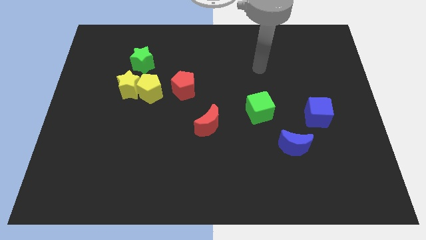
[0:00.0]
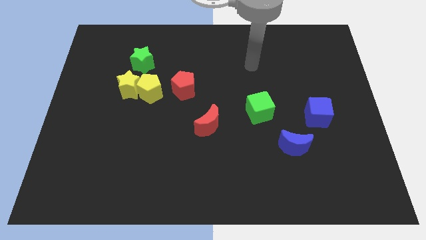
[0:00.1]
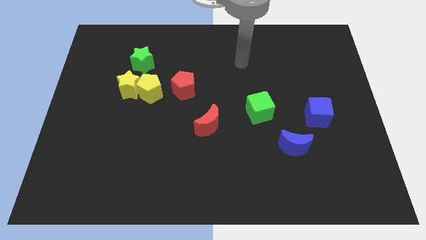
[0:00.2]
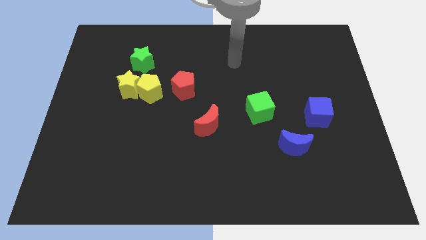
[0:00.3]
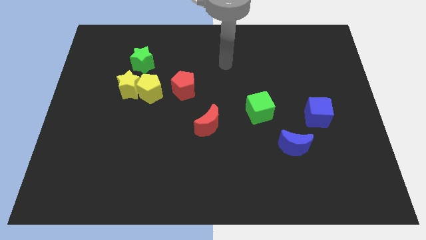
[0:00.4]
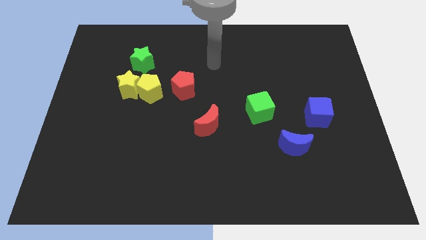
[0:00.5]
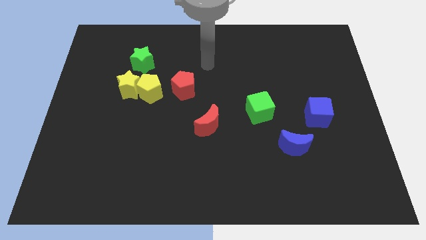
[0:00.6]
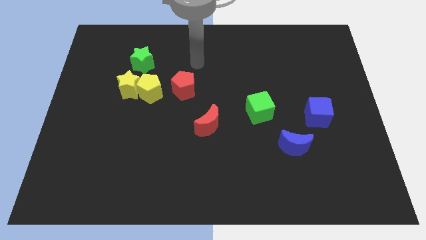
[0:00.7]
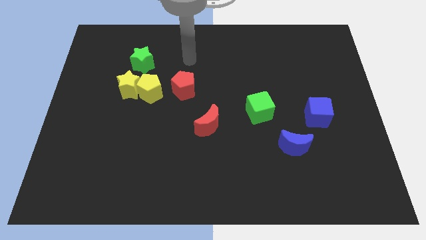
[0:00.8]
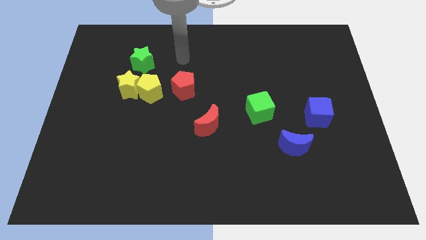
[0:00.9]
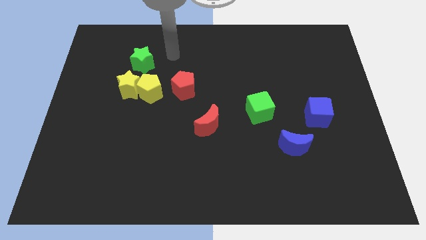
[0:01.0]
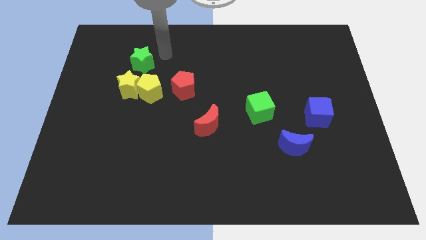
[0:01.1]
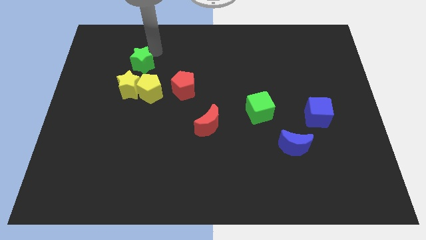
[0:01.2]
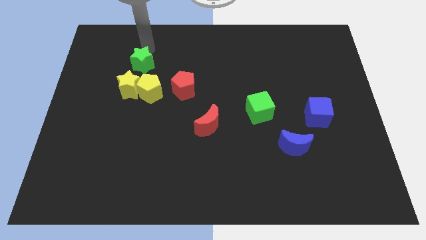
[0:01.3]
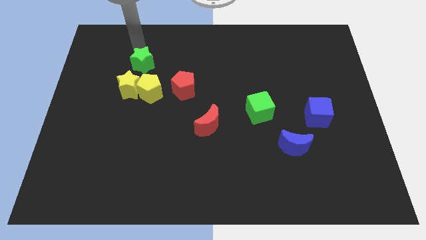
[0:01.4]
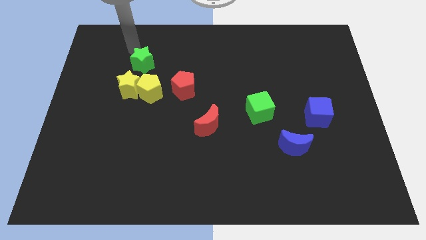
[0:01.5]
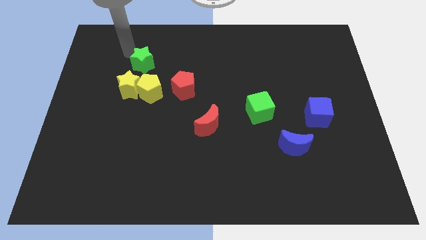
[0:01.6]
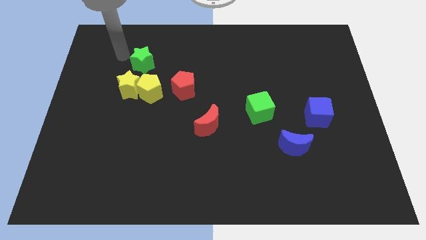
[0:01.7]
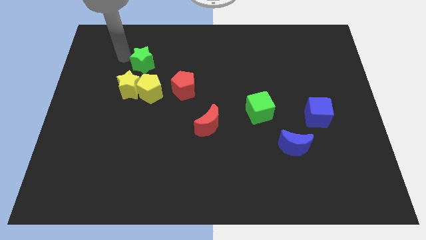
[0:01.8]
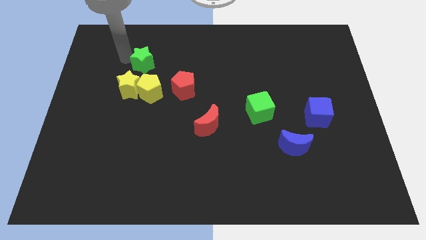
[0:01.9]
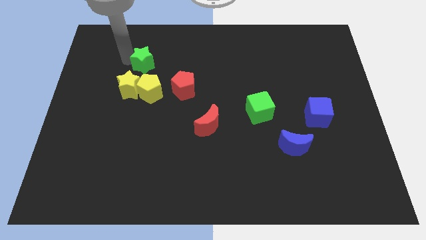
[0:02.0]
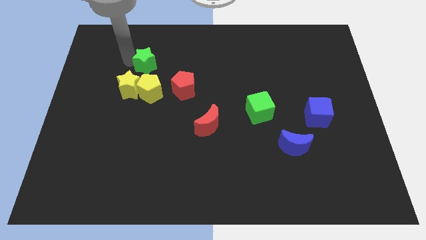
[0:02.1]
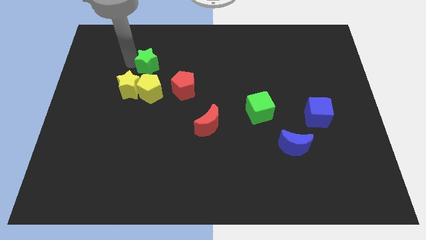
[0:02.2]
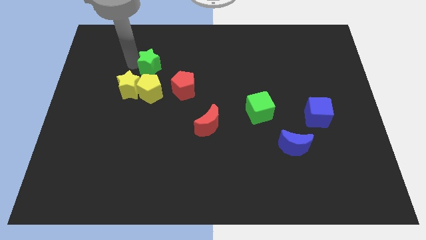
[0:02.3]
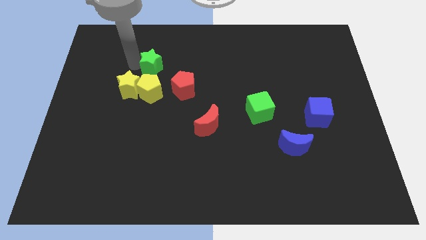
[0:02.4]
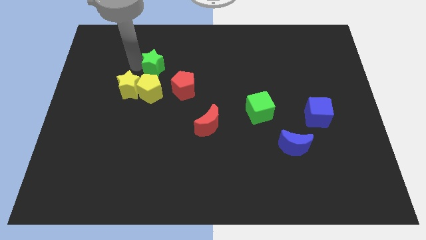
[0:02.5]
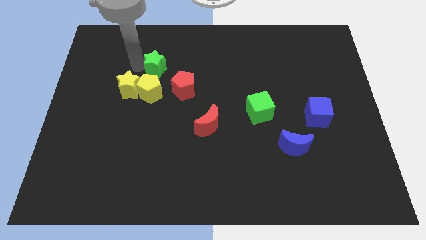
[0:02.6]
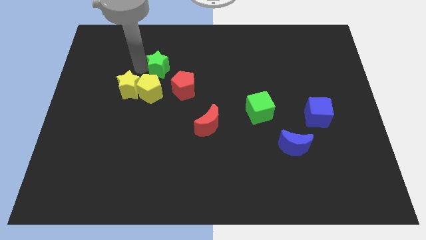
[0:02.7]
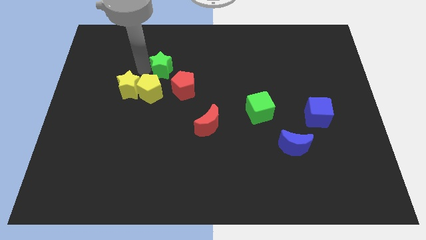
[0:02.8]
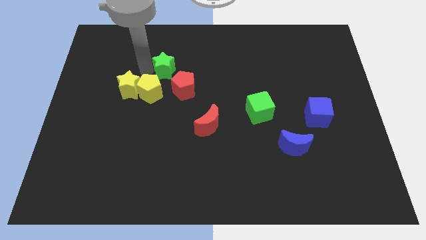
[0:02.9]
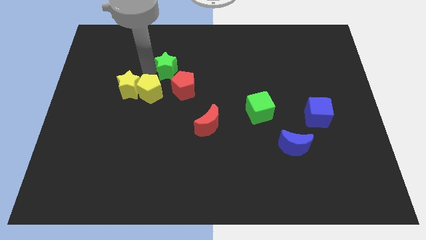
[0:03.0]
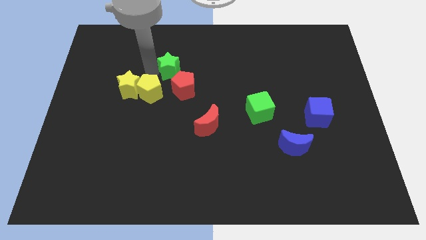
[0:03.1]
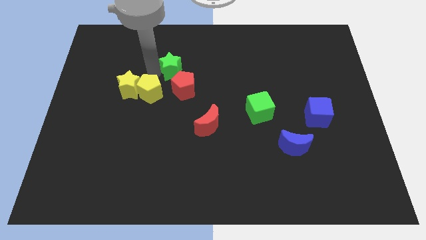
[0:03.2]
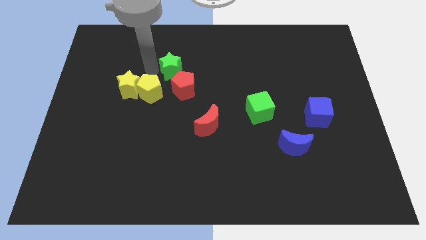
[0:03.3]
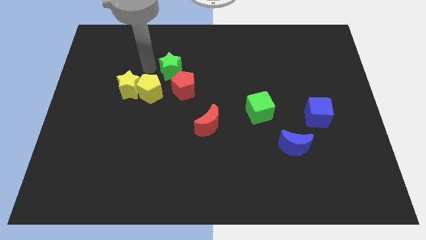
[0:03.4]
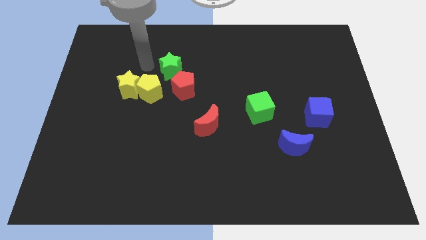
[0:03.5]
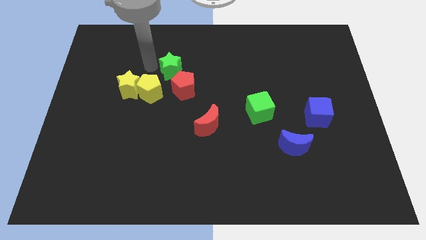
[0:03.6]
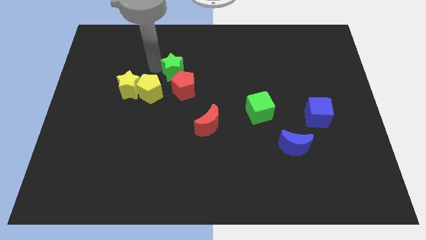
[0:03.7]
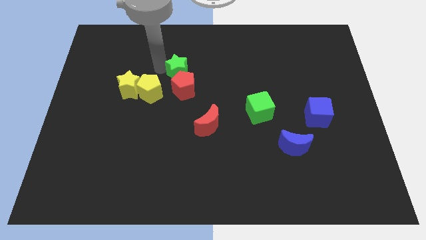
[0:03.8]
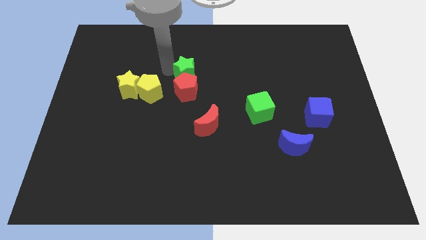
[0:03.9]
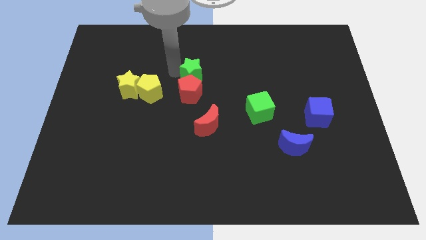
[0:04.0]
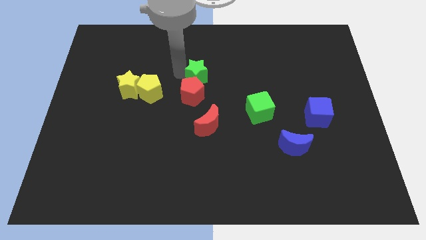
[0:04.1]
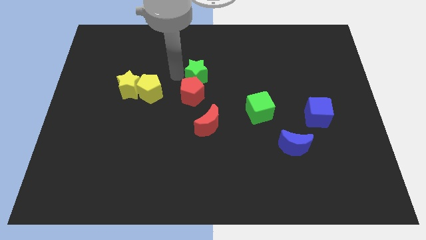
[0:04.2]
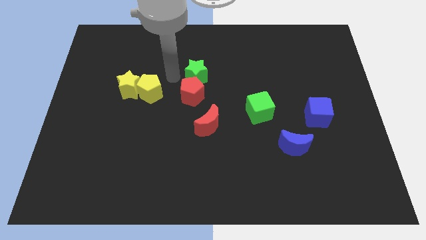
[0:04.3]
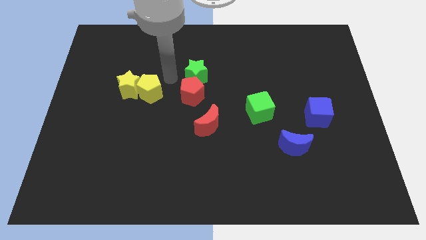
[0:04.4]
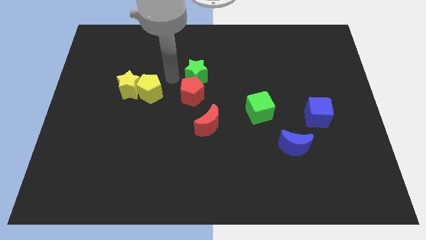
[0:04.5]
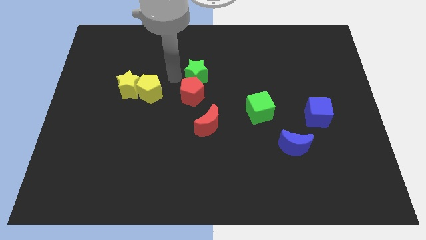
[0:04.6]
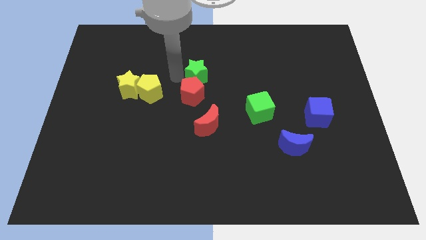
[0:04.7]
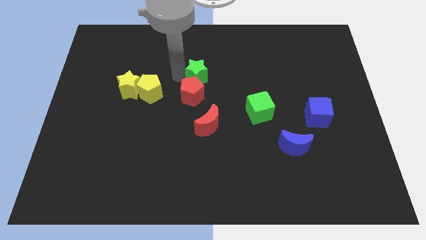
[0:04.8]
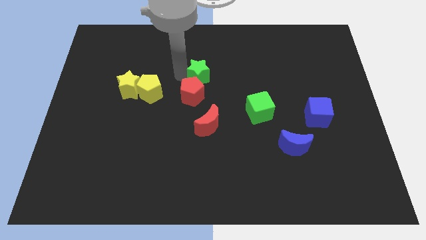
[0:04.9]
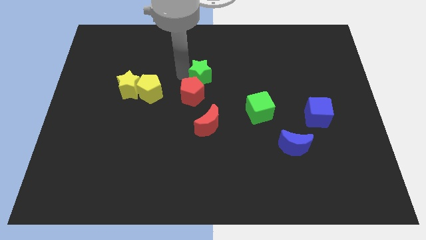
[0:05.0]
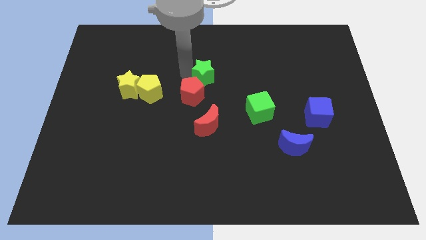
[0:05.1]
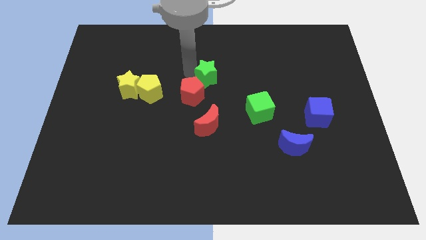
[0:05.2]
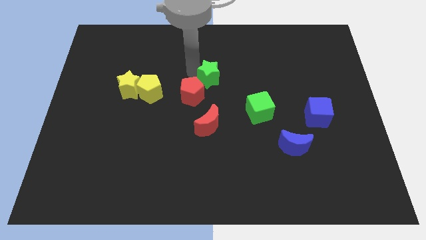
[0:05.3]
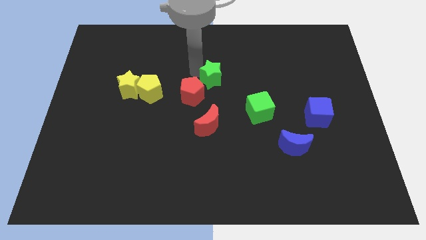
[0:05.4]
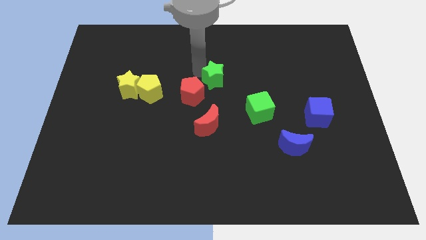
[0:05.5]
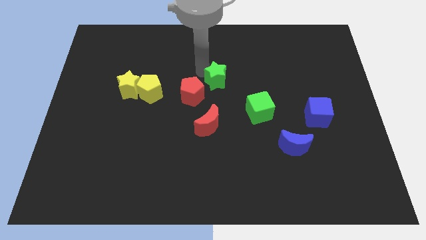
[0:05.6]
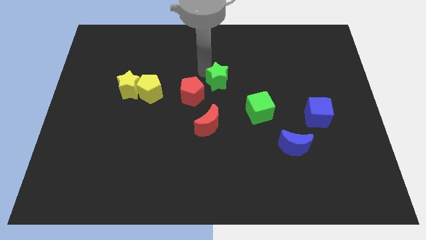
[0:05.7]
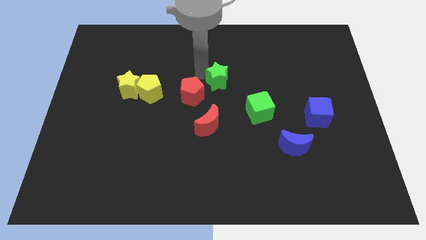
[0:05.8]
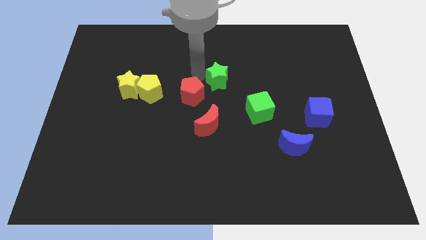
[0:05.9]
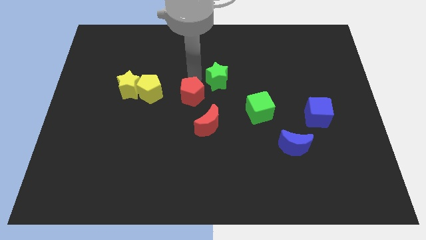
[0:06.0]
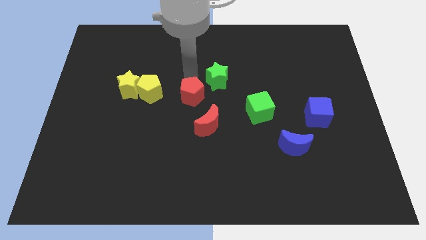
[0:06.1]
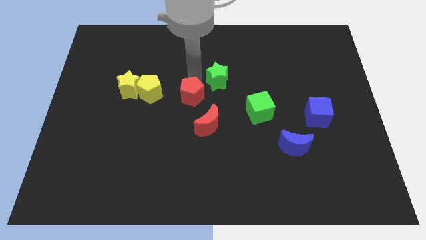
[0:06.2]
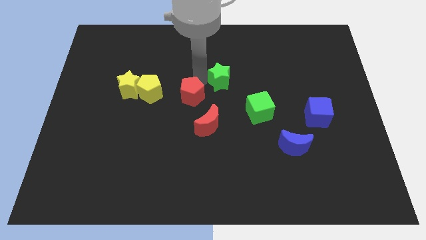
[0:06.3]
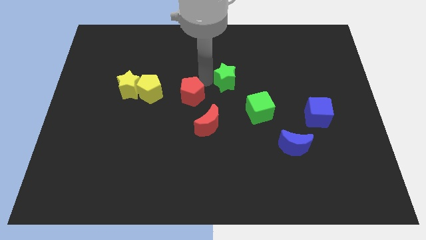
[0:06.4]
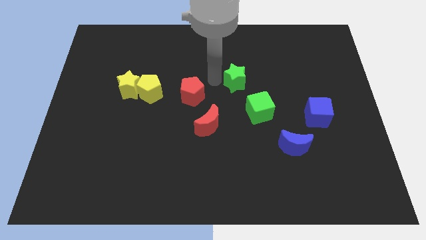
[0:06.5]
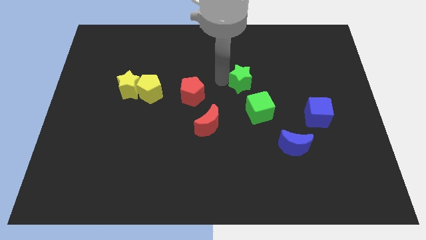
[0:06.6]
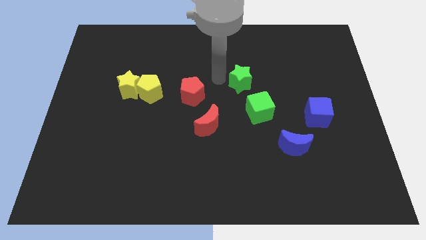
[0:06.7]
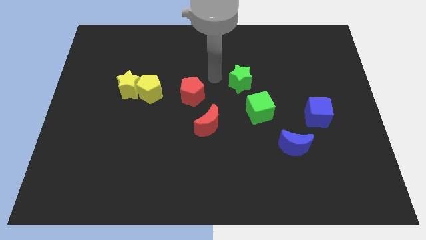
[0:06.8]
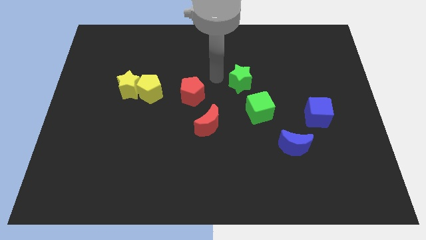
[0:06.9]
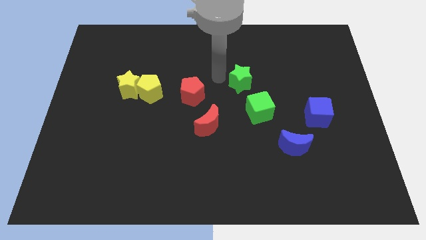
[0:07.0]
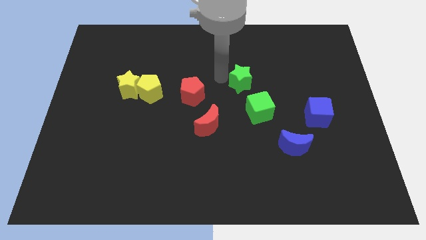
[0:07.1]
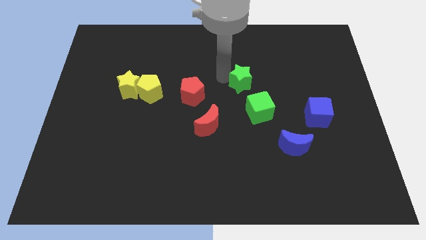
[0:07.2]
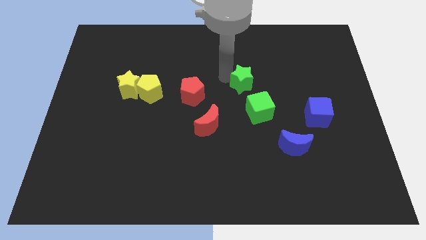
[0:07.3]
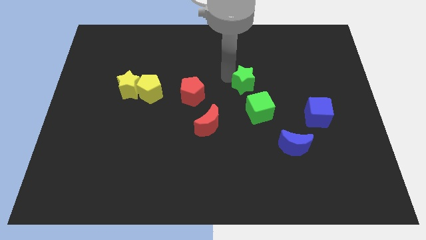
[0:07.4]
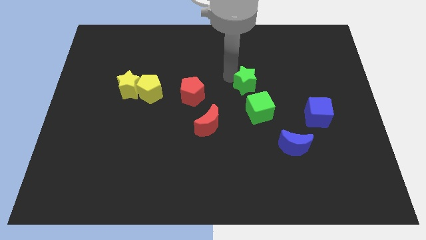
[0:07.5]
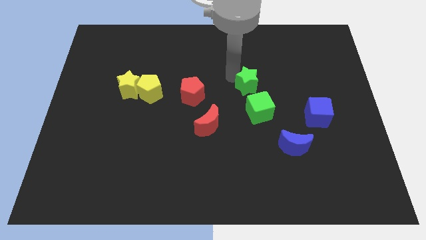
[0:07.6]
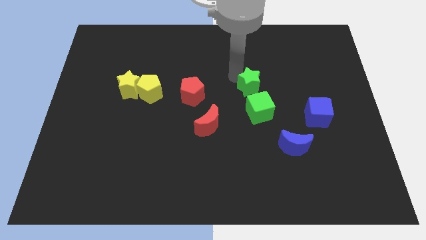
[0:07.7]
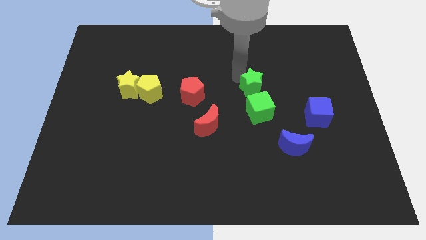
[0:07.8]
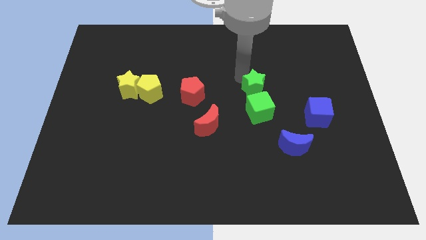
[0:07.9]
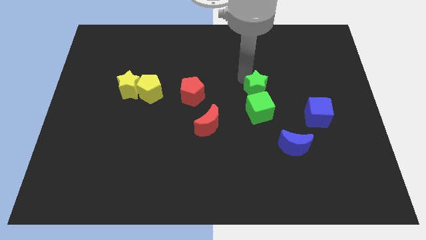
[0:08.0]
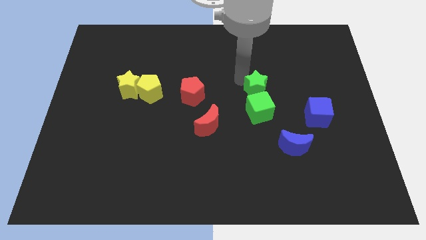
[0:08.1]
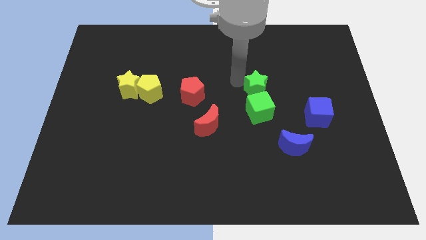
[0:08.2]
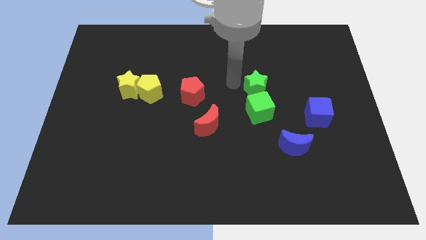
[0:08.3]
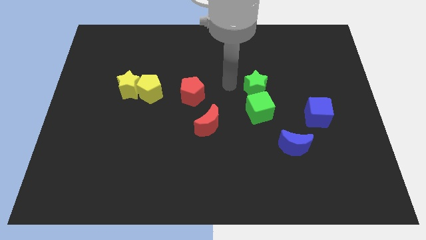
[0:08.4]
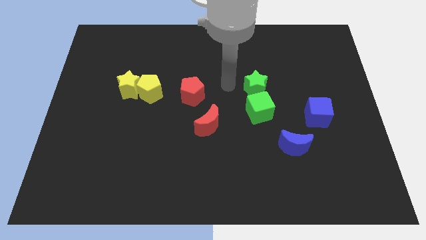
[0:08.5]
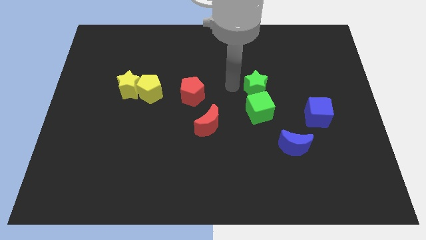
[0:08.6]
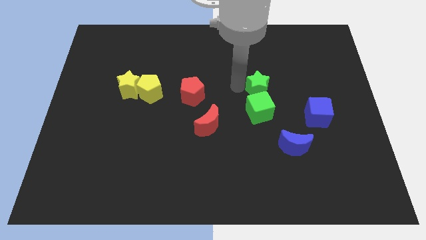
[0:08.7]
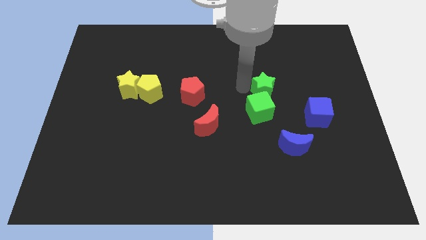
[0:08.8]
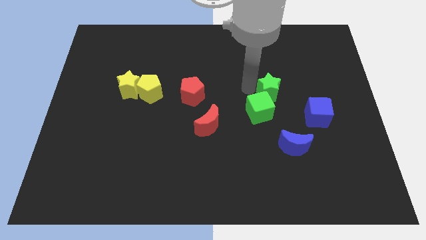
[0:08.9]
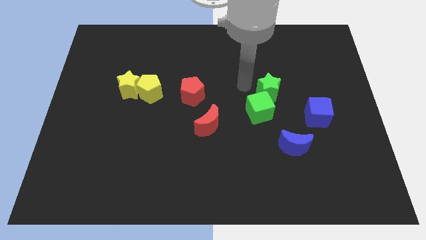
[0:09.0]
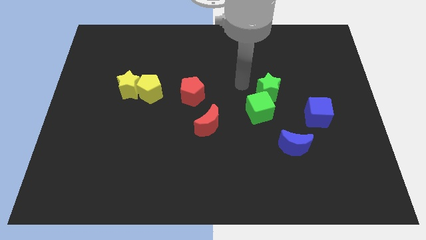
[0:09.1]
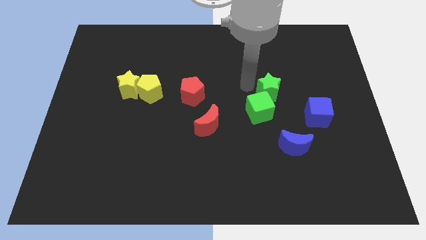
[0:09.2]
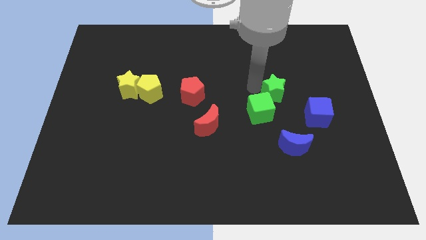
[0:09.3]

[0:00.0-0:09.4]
slide the green star to the top left of the blue cube
